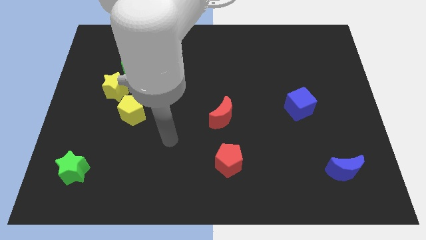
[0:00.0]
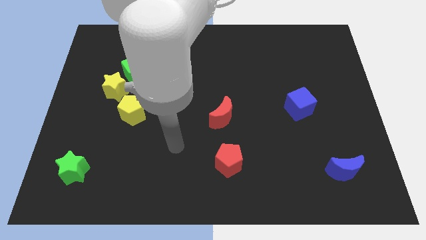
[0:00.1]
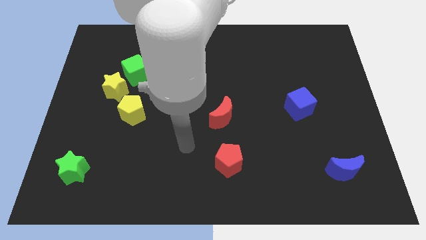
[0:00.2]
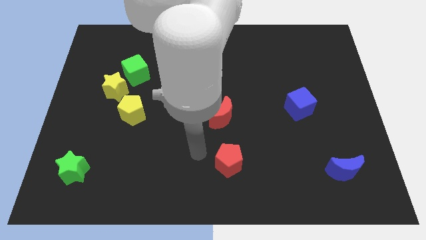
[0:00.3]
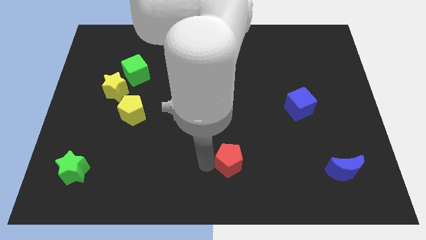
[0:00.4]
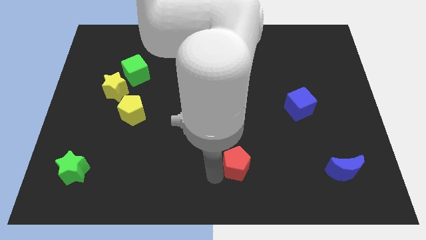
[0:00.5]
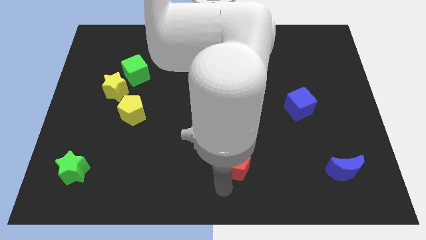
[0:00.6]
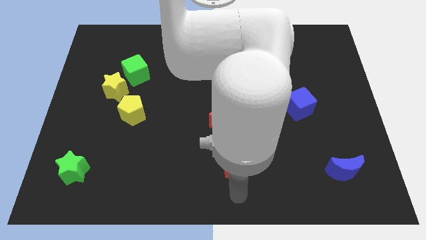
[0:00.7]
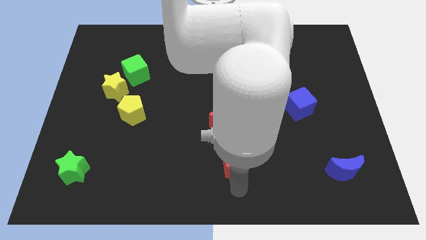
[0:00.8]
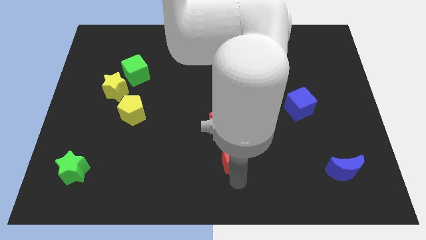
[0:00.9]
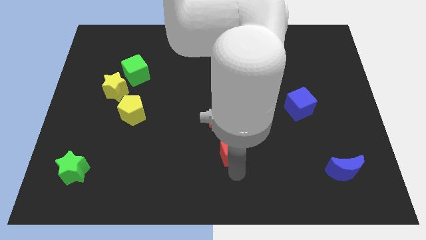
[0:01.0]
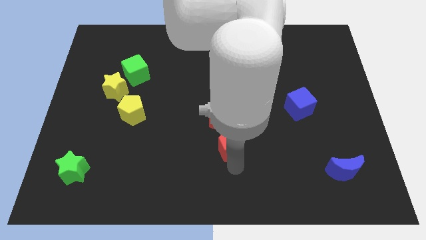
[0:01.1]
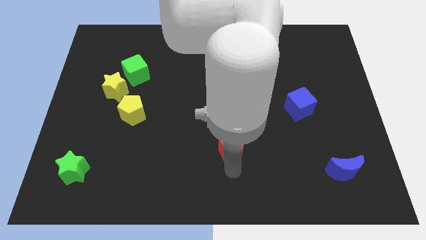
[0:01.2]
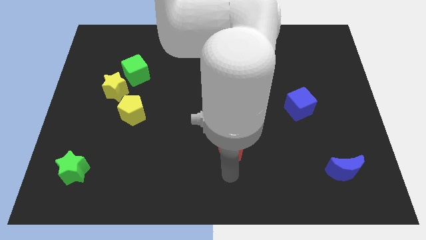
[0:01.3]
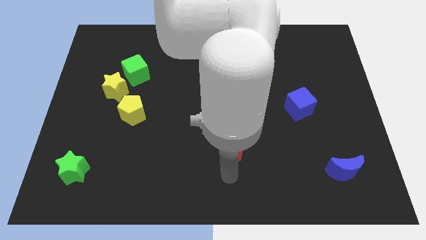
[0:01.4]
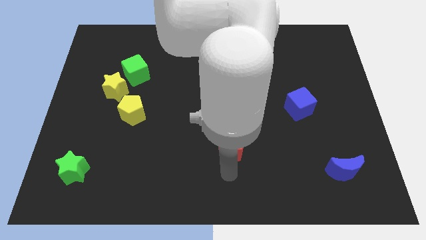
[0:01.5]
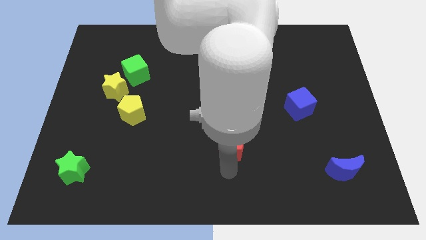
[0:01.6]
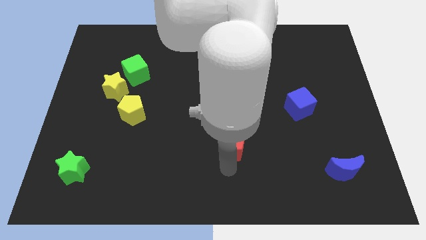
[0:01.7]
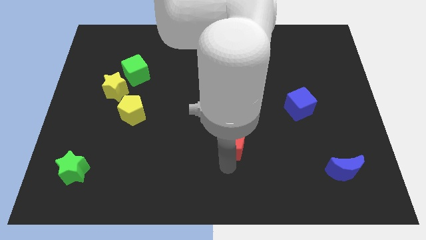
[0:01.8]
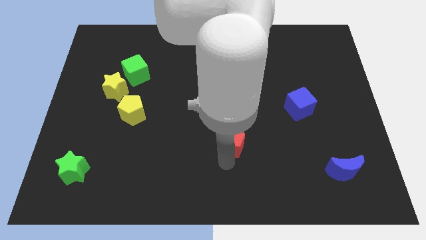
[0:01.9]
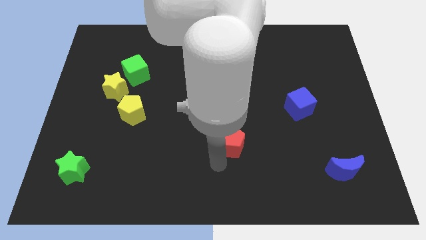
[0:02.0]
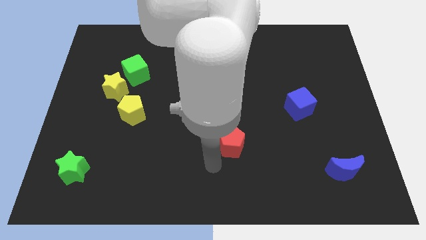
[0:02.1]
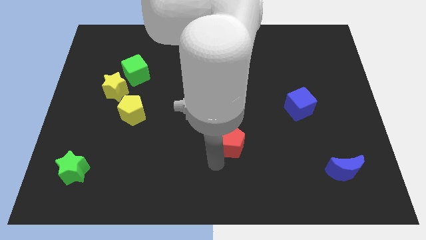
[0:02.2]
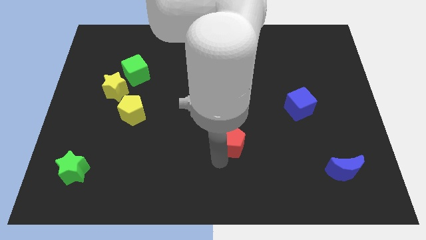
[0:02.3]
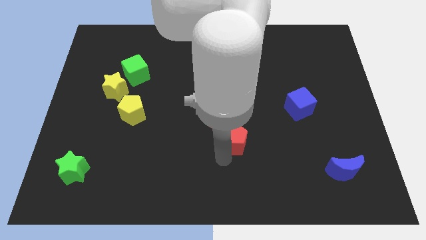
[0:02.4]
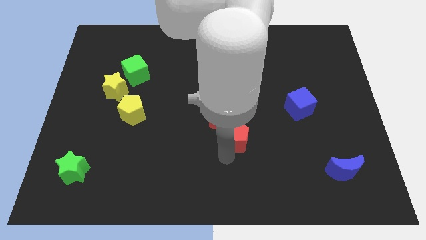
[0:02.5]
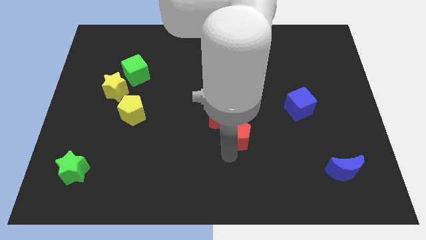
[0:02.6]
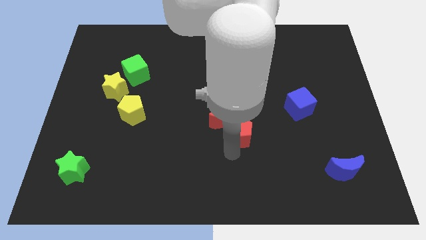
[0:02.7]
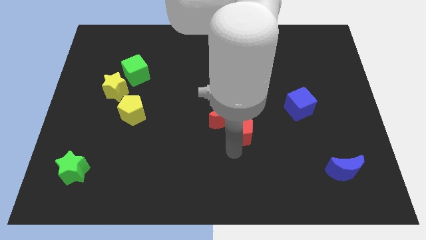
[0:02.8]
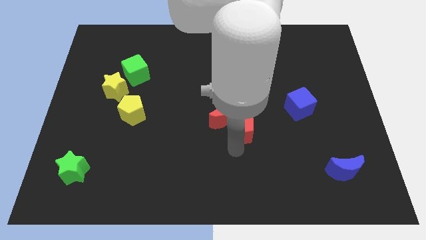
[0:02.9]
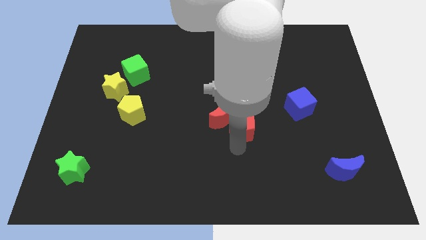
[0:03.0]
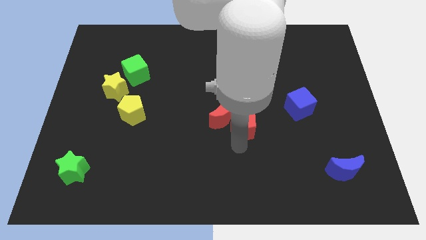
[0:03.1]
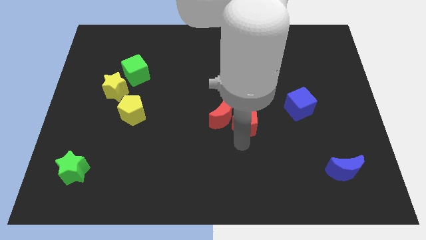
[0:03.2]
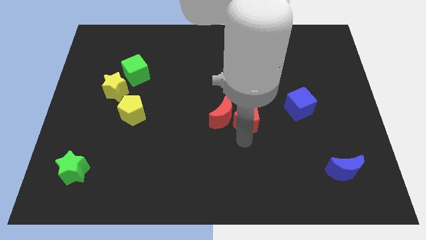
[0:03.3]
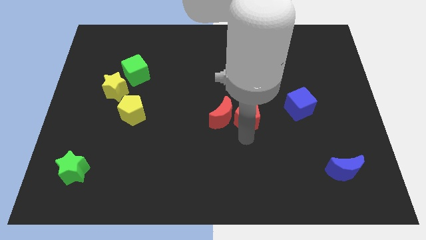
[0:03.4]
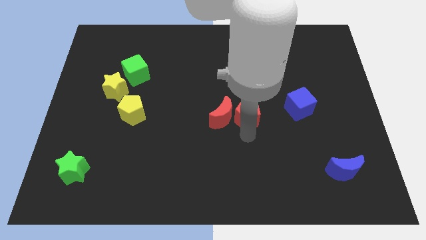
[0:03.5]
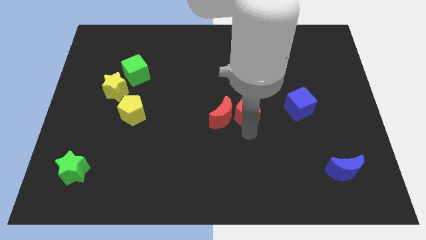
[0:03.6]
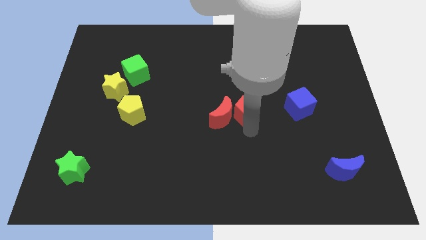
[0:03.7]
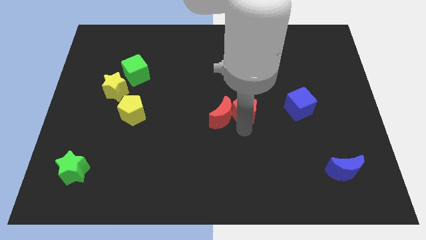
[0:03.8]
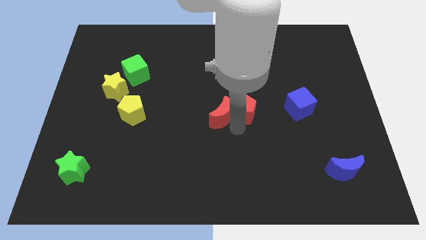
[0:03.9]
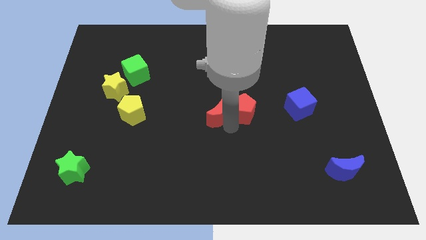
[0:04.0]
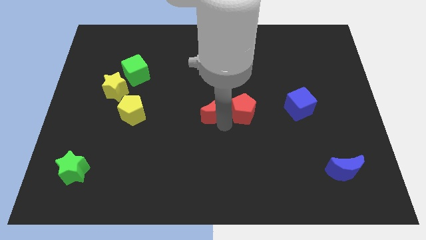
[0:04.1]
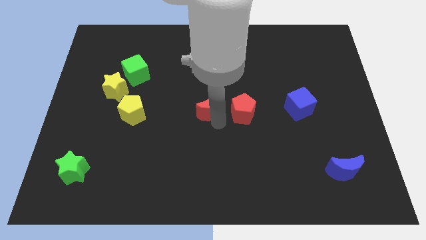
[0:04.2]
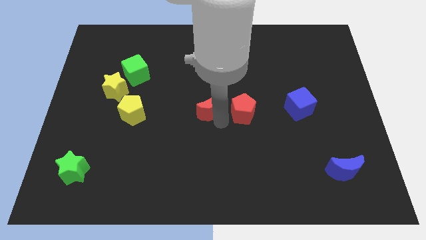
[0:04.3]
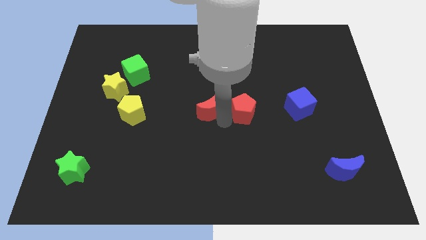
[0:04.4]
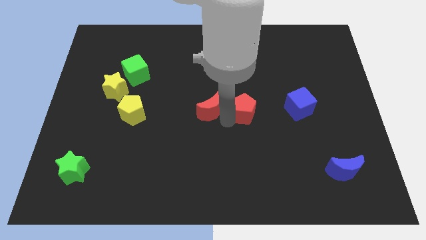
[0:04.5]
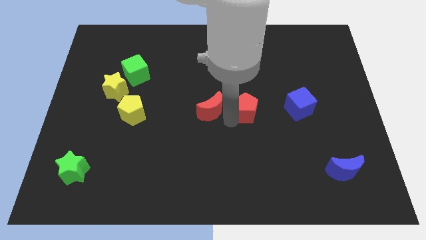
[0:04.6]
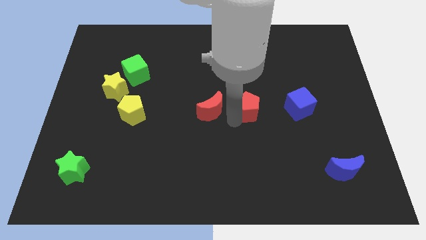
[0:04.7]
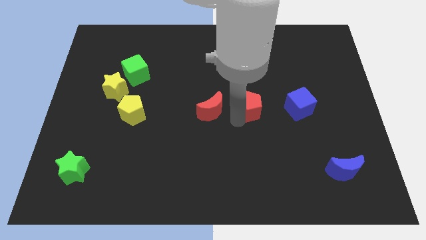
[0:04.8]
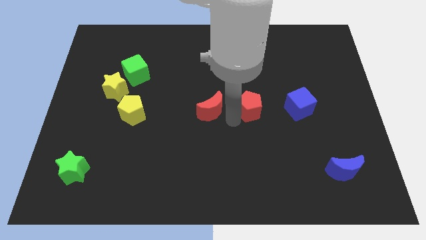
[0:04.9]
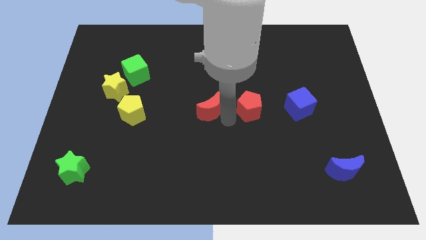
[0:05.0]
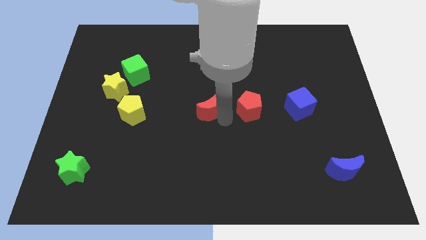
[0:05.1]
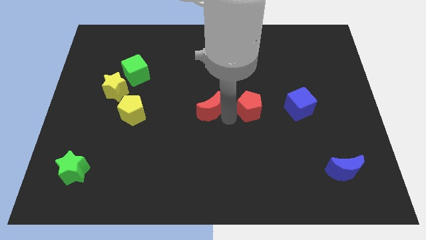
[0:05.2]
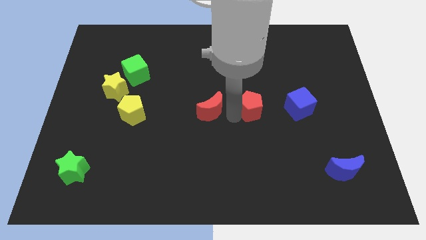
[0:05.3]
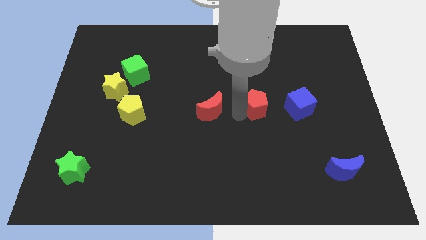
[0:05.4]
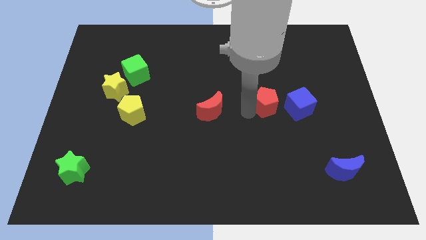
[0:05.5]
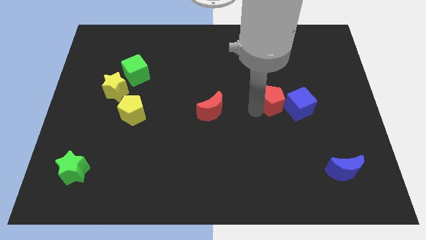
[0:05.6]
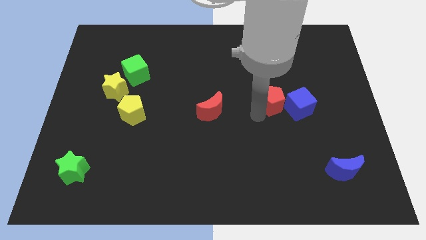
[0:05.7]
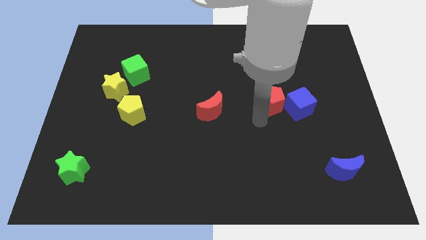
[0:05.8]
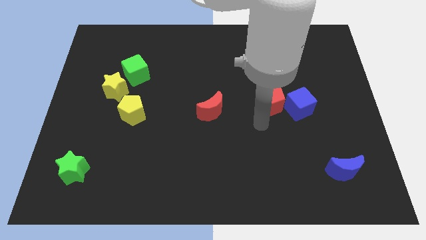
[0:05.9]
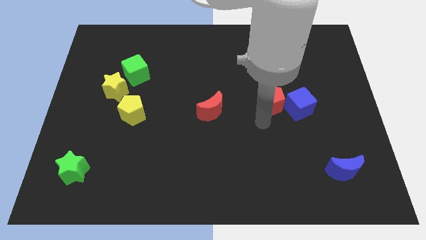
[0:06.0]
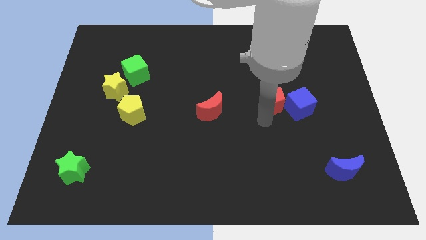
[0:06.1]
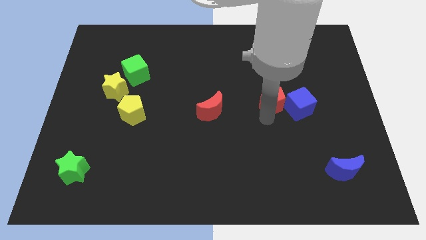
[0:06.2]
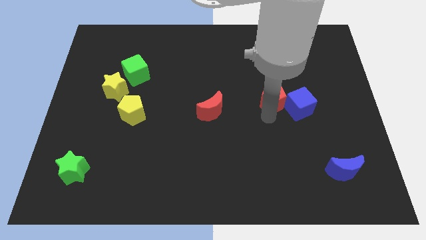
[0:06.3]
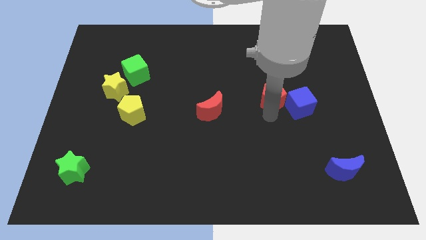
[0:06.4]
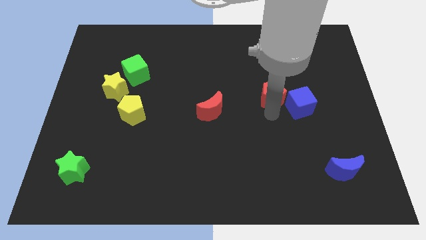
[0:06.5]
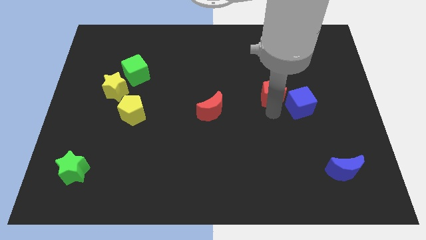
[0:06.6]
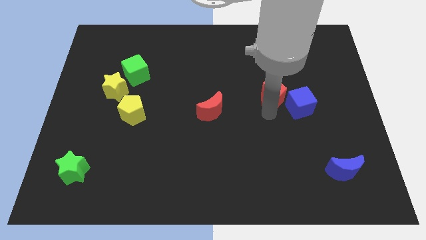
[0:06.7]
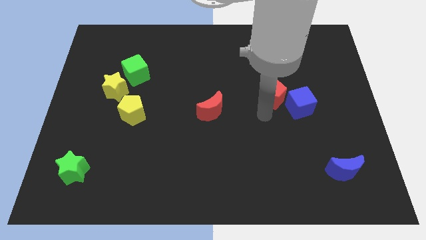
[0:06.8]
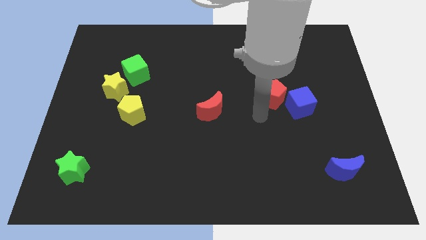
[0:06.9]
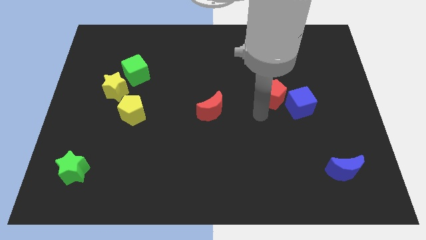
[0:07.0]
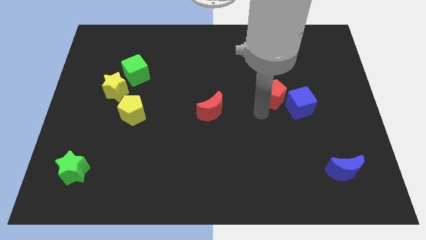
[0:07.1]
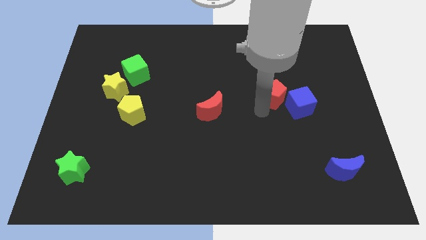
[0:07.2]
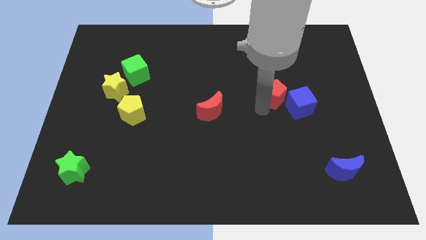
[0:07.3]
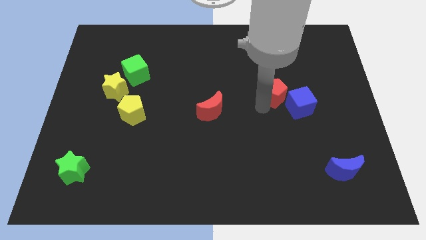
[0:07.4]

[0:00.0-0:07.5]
move the red pentagon up and to the right
